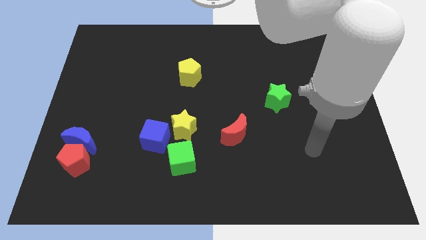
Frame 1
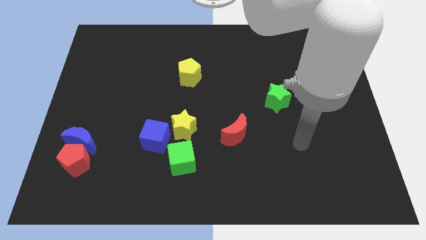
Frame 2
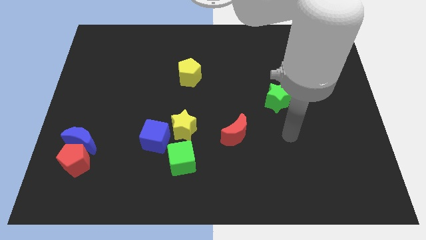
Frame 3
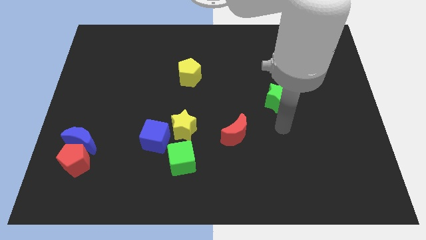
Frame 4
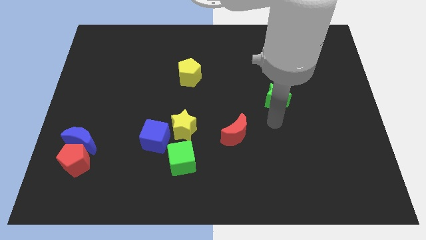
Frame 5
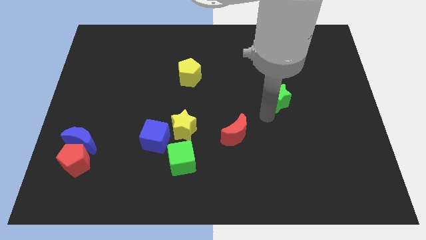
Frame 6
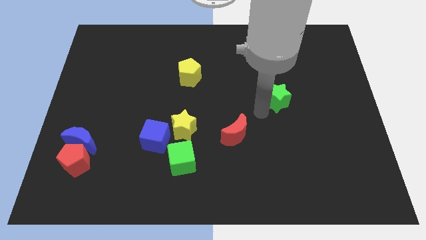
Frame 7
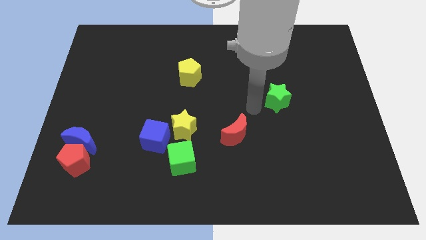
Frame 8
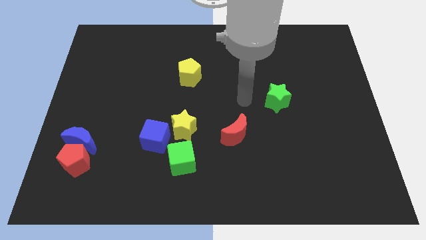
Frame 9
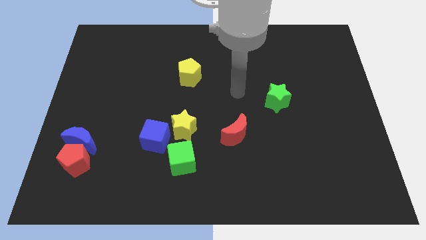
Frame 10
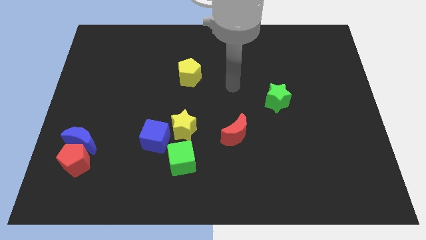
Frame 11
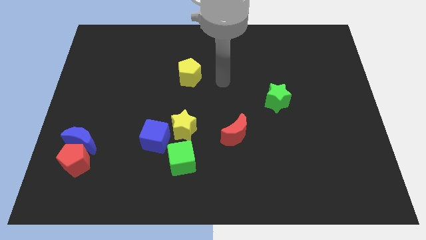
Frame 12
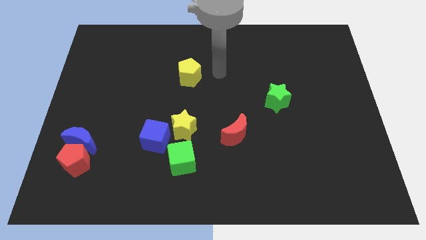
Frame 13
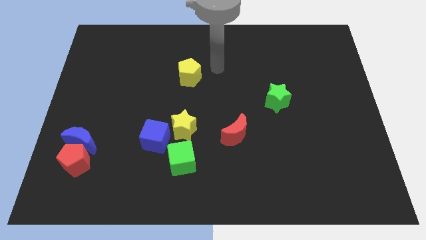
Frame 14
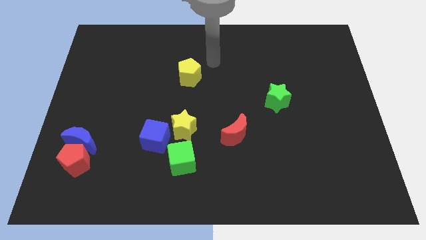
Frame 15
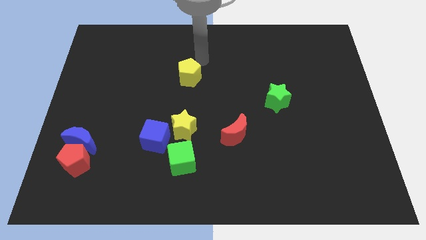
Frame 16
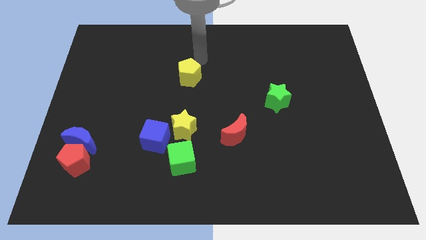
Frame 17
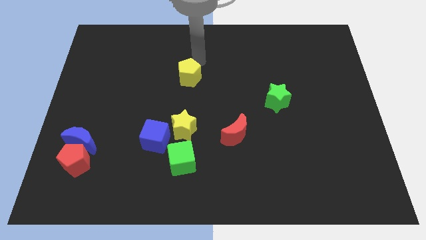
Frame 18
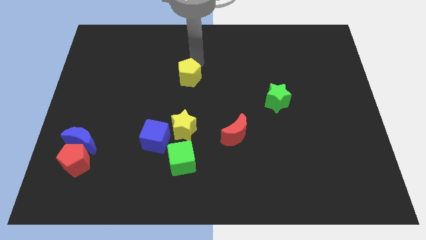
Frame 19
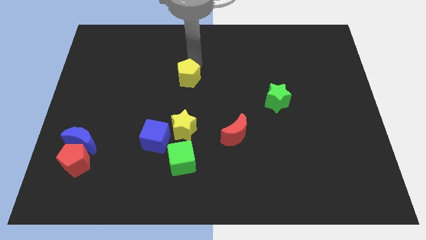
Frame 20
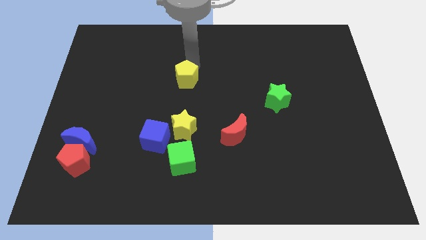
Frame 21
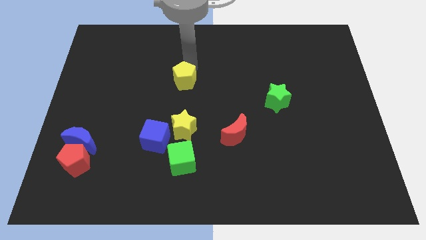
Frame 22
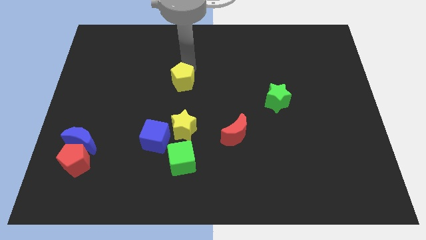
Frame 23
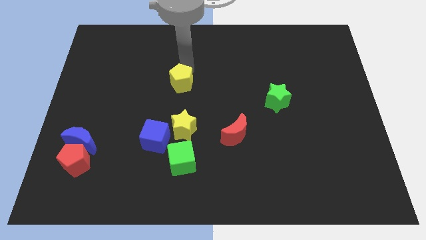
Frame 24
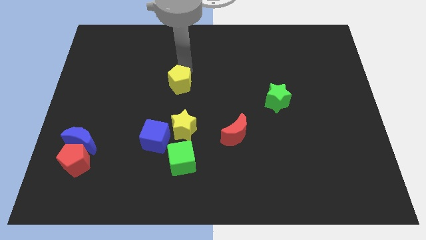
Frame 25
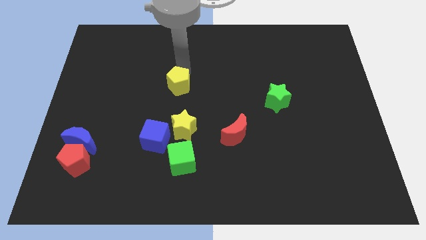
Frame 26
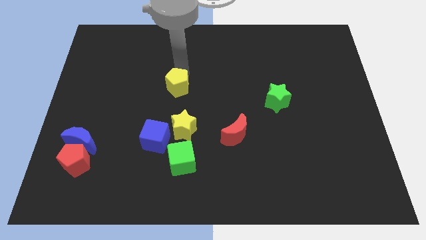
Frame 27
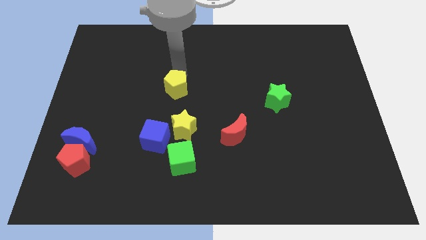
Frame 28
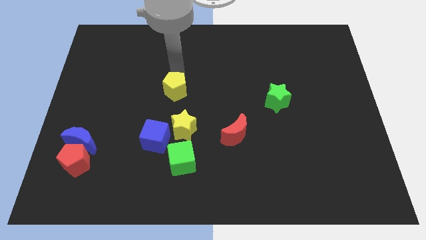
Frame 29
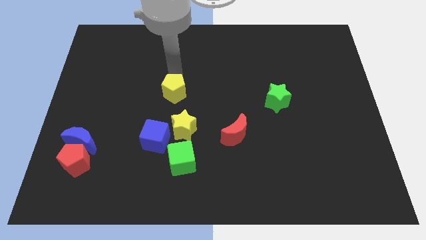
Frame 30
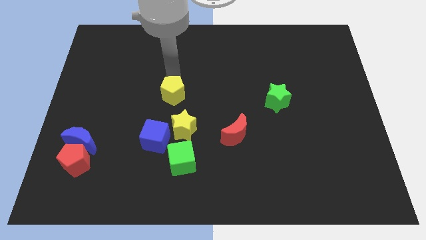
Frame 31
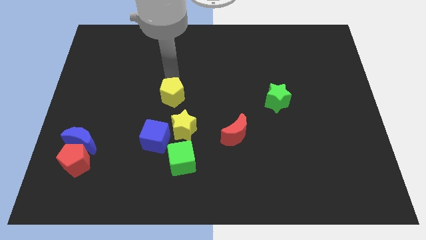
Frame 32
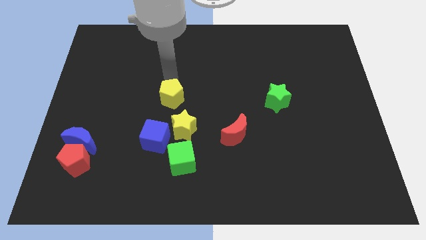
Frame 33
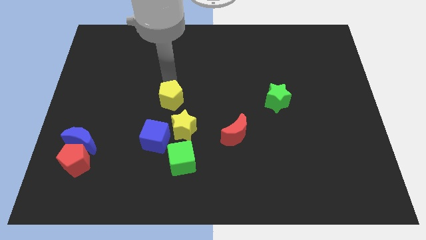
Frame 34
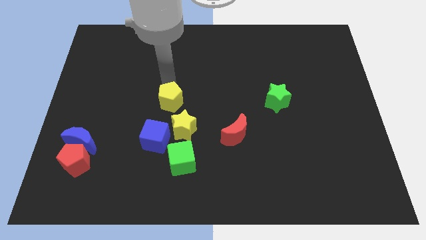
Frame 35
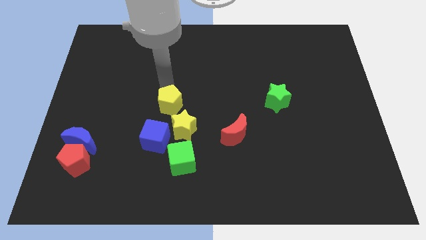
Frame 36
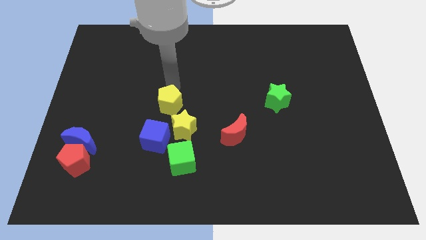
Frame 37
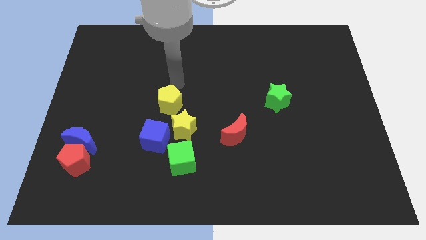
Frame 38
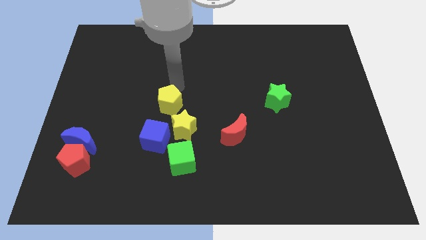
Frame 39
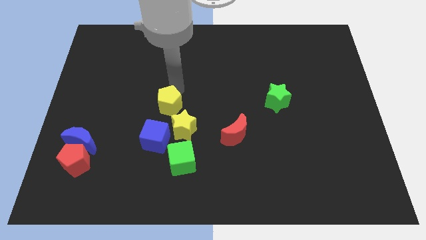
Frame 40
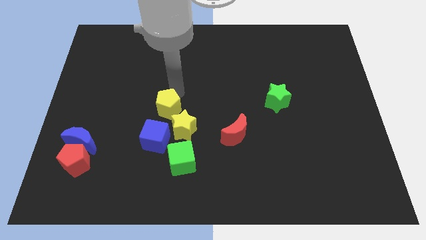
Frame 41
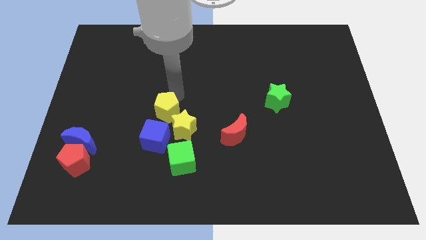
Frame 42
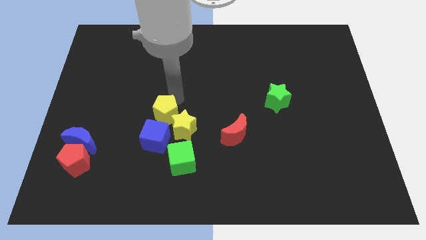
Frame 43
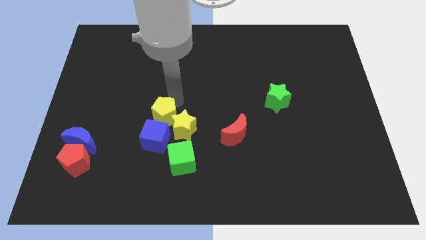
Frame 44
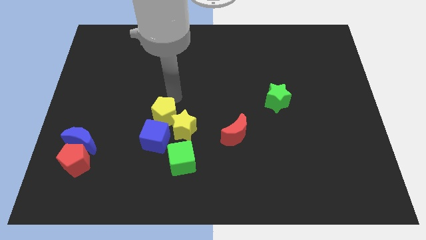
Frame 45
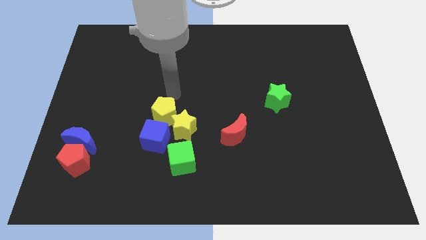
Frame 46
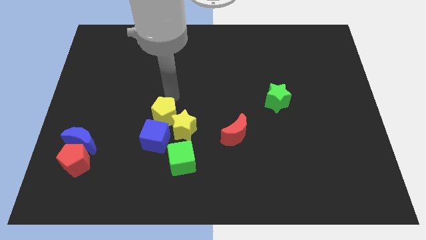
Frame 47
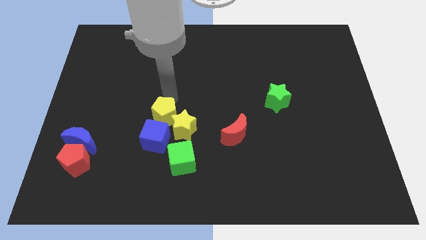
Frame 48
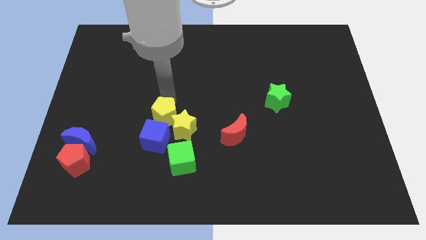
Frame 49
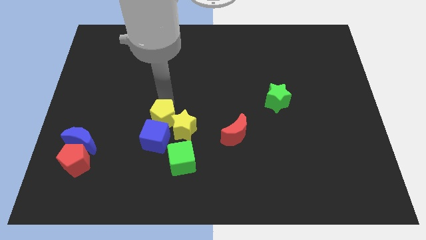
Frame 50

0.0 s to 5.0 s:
push the yellow pentagon towards the blue cube

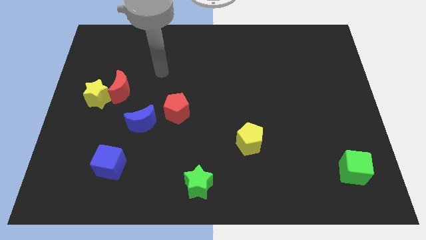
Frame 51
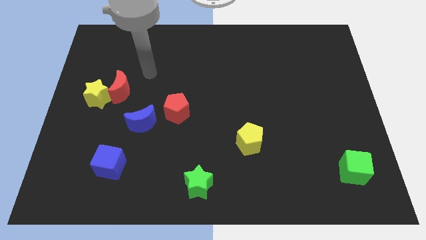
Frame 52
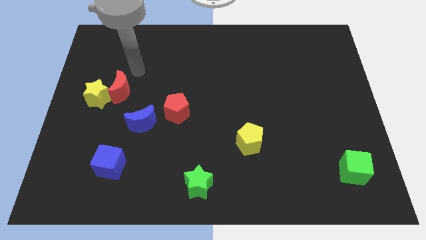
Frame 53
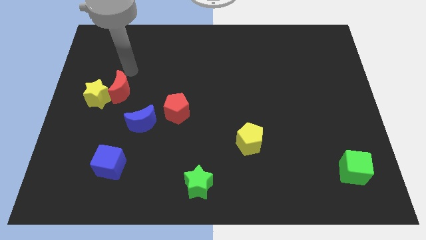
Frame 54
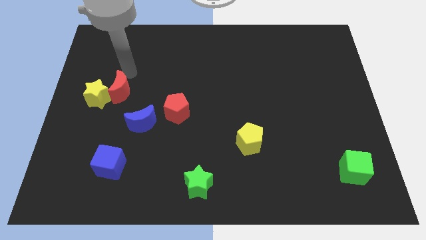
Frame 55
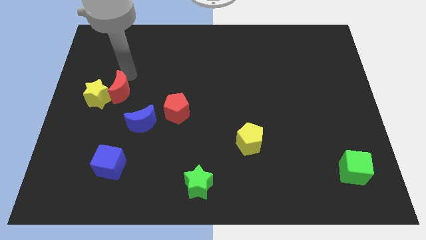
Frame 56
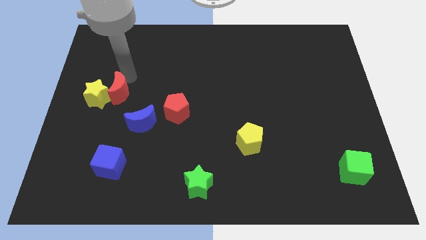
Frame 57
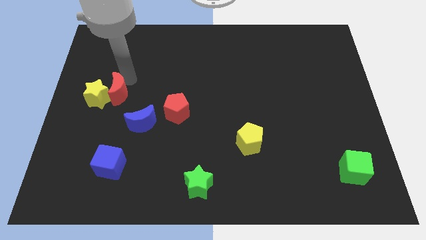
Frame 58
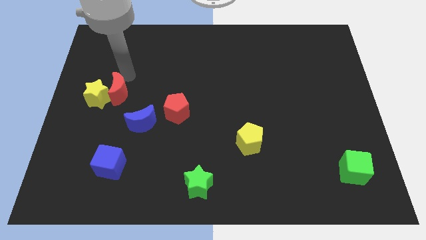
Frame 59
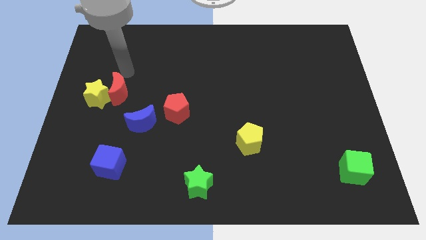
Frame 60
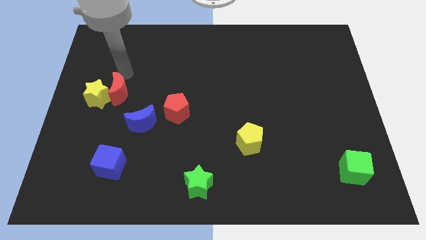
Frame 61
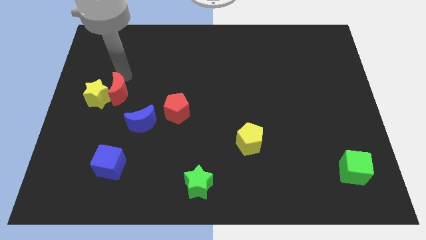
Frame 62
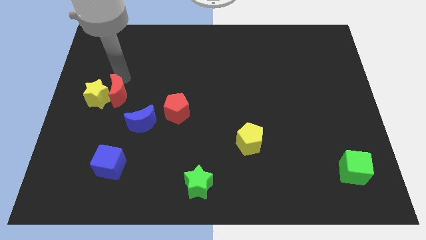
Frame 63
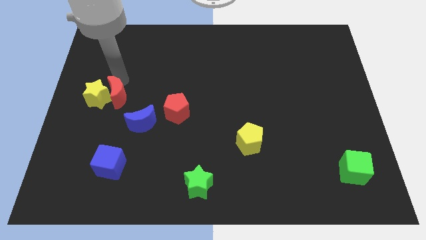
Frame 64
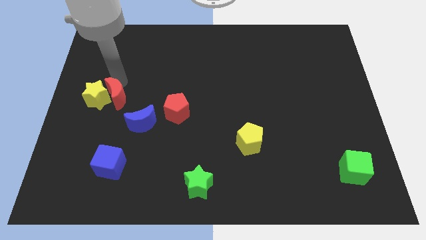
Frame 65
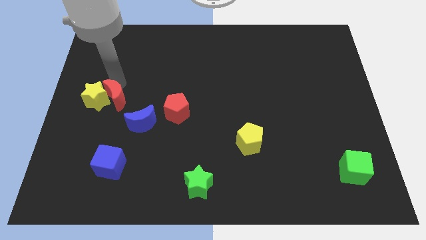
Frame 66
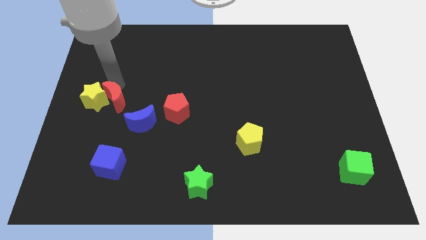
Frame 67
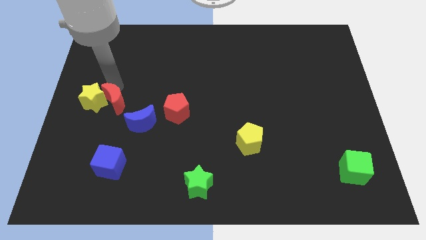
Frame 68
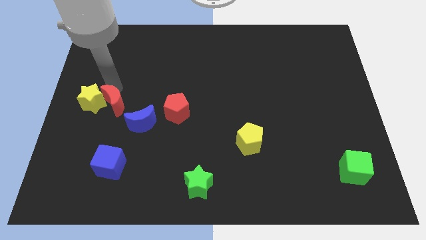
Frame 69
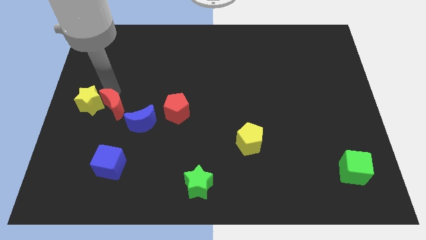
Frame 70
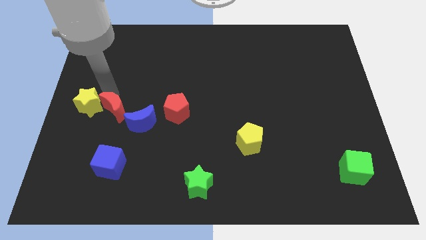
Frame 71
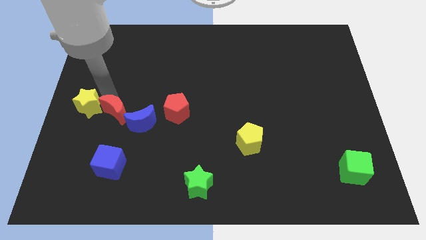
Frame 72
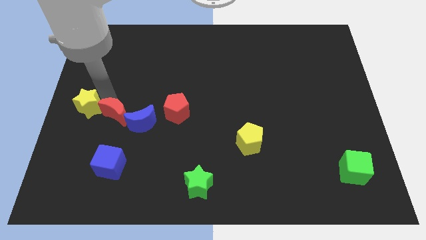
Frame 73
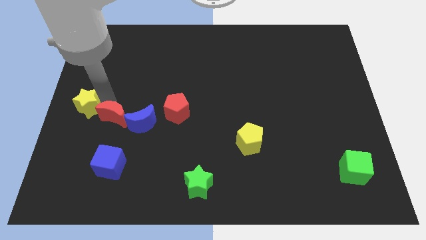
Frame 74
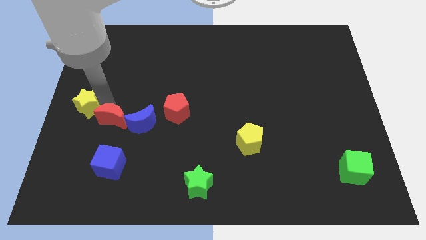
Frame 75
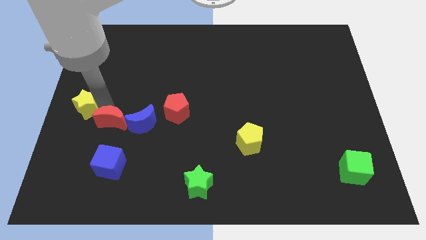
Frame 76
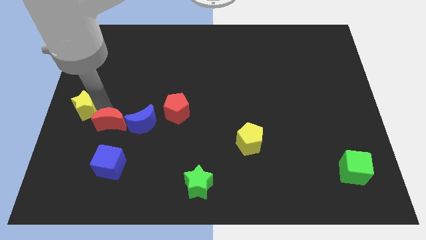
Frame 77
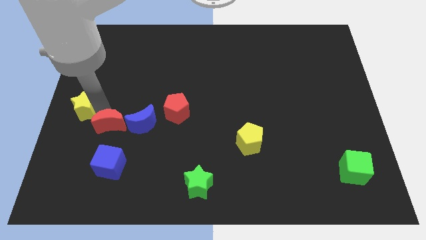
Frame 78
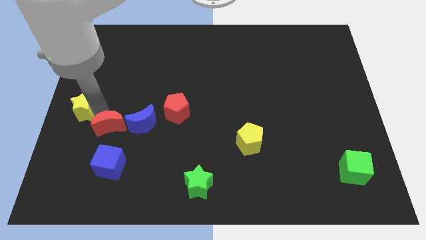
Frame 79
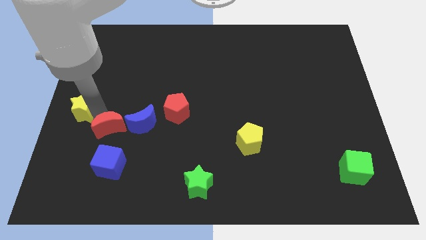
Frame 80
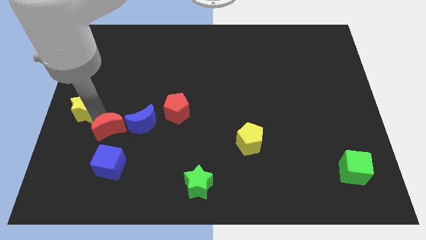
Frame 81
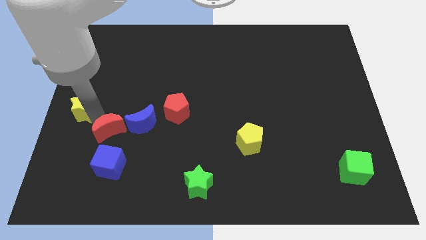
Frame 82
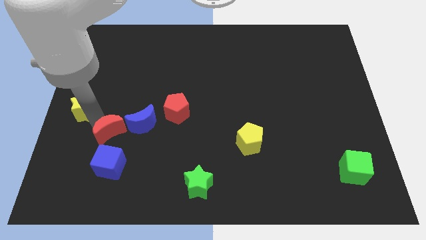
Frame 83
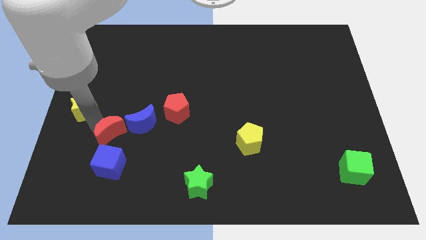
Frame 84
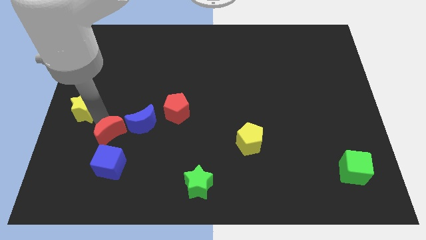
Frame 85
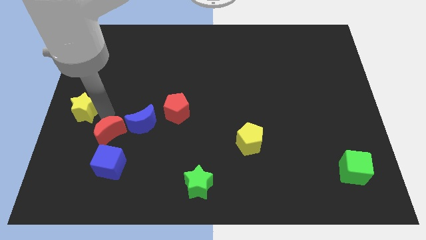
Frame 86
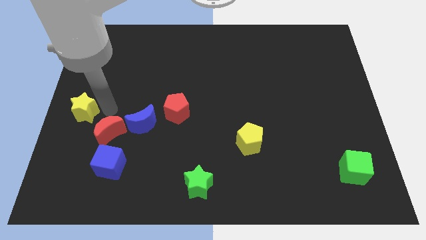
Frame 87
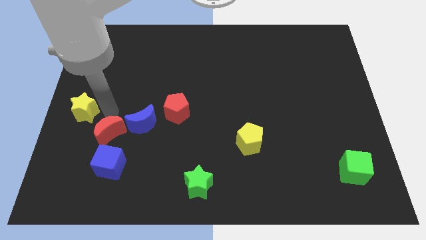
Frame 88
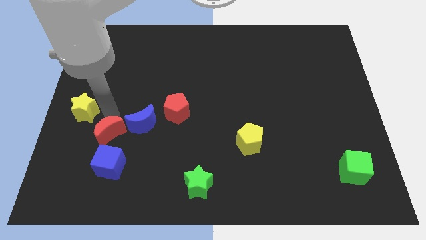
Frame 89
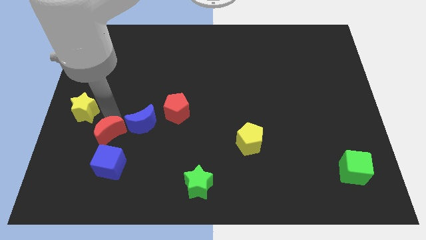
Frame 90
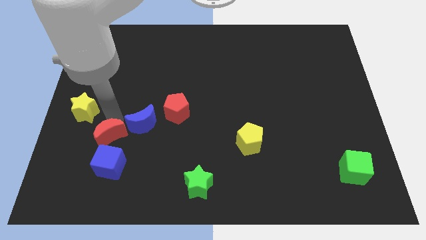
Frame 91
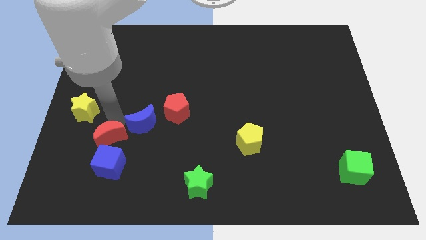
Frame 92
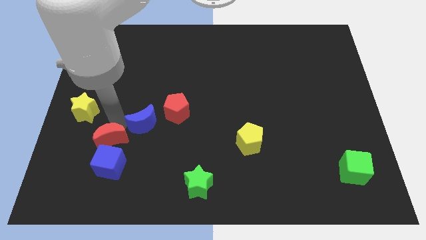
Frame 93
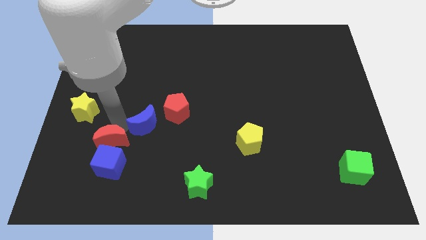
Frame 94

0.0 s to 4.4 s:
slide the red moon close to the blue cube
